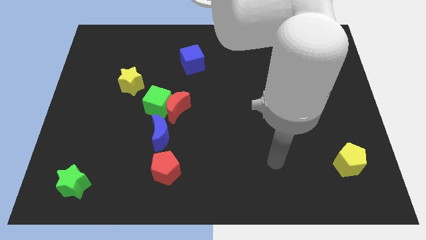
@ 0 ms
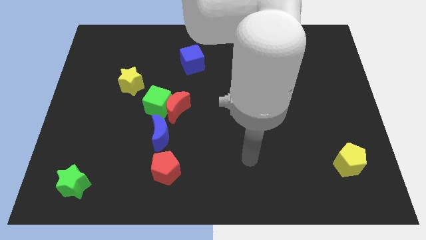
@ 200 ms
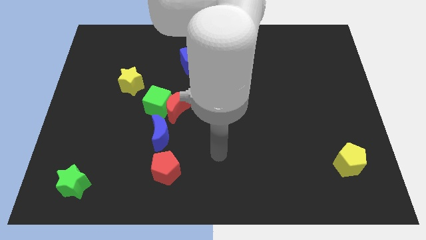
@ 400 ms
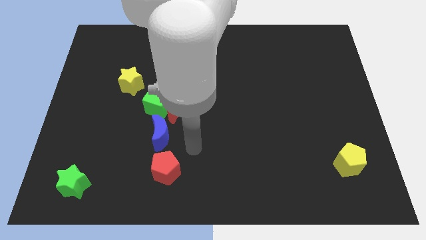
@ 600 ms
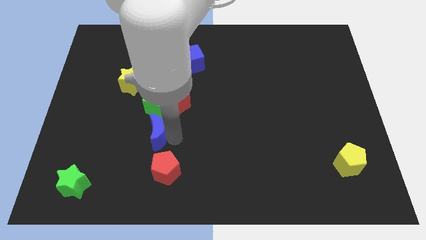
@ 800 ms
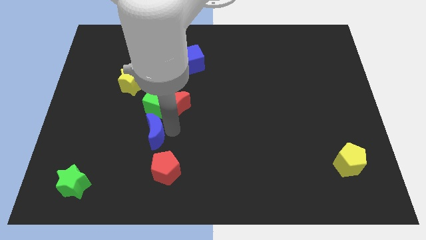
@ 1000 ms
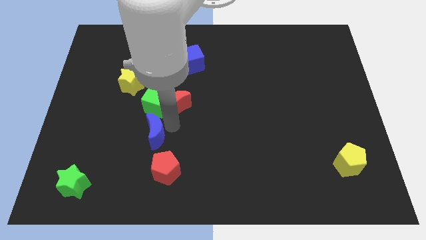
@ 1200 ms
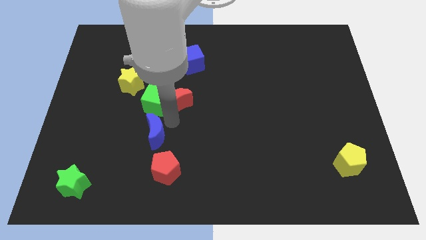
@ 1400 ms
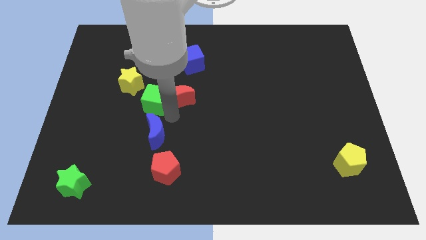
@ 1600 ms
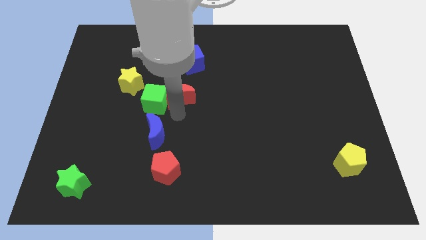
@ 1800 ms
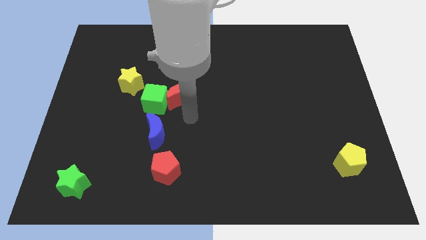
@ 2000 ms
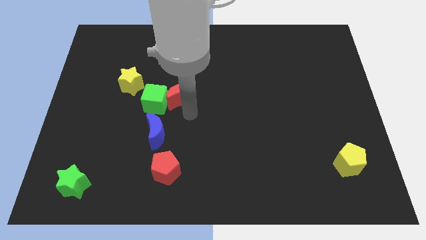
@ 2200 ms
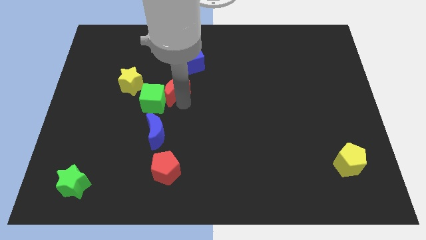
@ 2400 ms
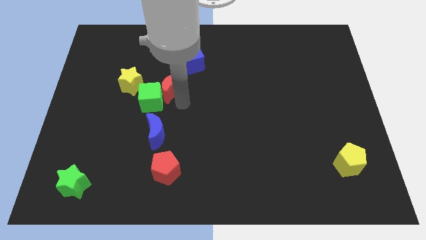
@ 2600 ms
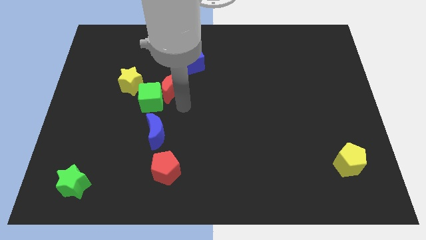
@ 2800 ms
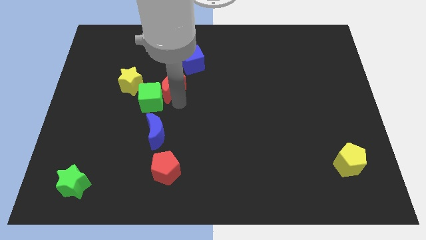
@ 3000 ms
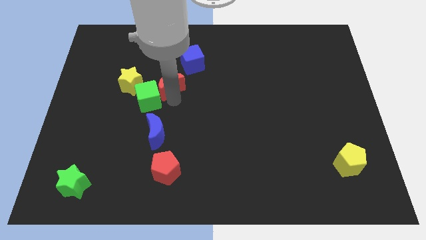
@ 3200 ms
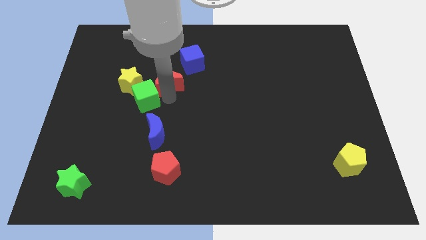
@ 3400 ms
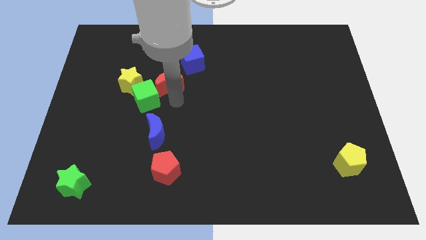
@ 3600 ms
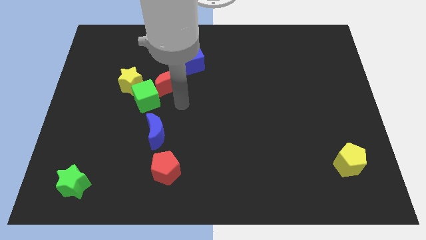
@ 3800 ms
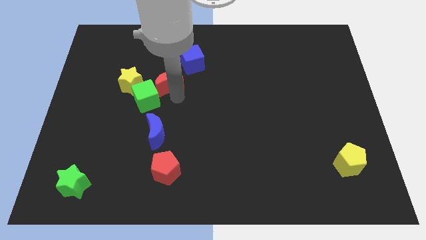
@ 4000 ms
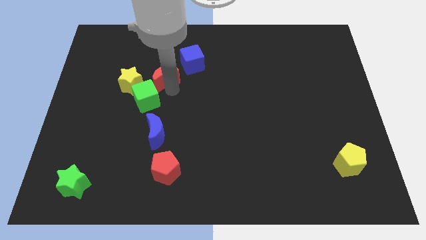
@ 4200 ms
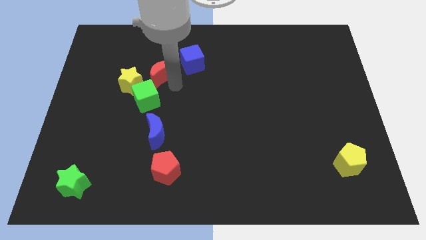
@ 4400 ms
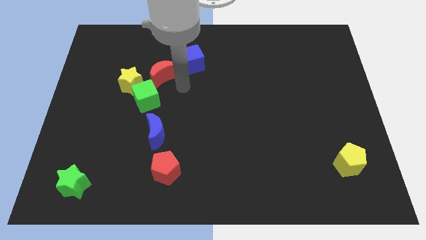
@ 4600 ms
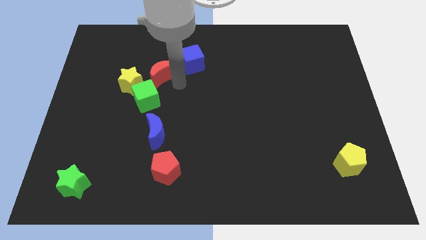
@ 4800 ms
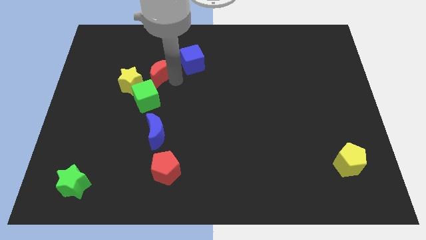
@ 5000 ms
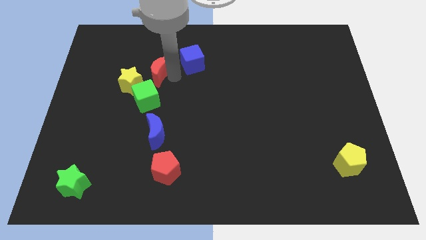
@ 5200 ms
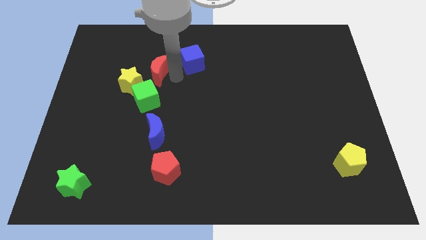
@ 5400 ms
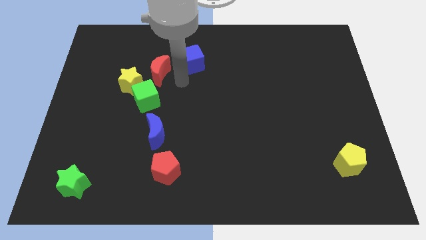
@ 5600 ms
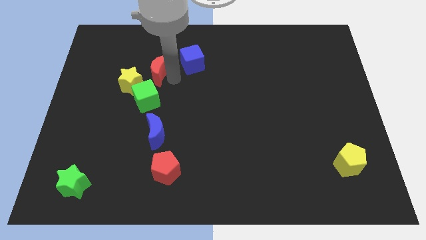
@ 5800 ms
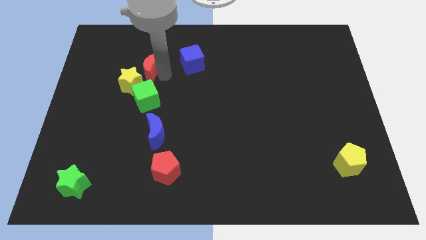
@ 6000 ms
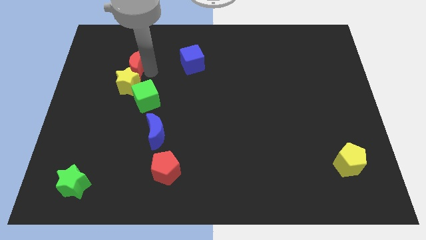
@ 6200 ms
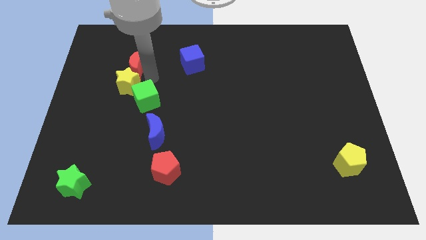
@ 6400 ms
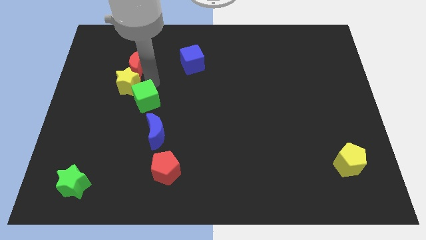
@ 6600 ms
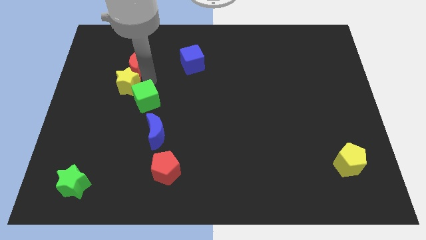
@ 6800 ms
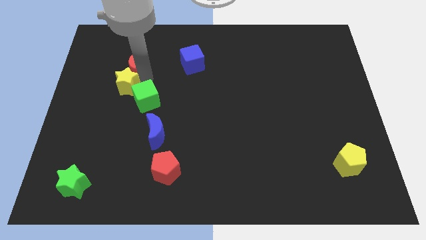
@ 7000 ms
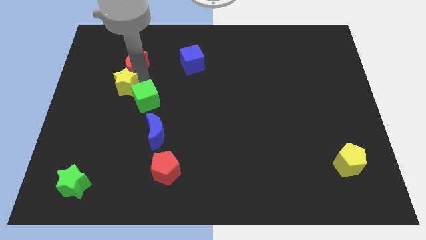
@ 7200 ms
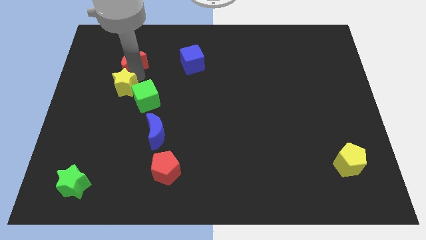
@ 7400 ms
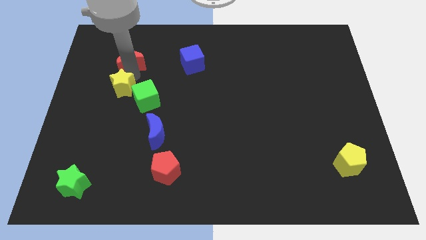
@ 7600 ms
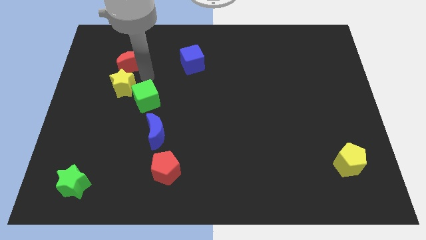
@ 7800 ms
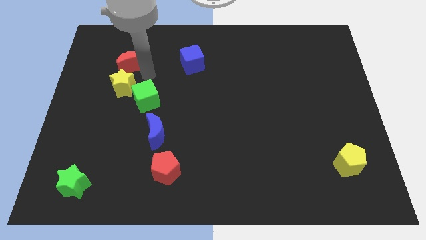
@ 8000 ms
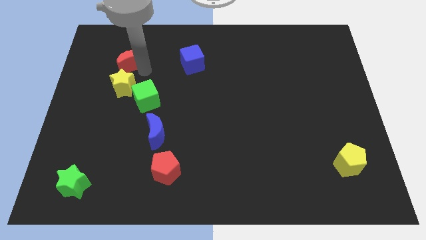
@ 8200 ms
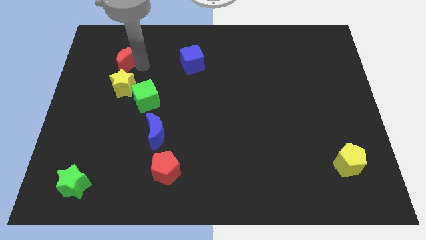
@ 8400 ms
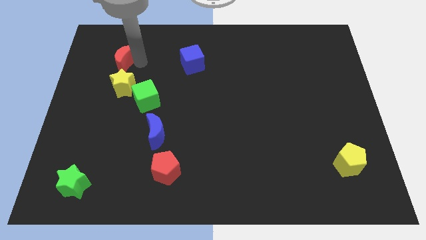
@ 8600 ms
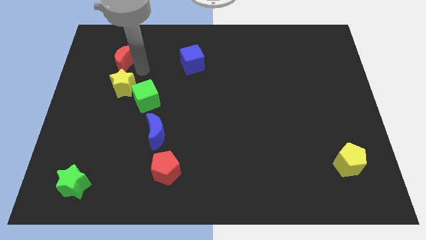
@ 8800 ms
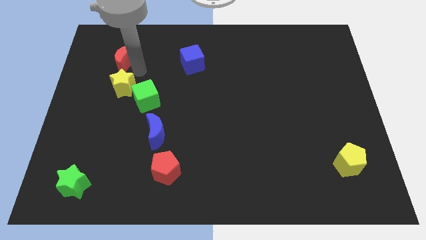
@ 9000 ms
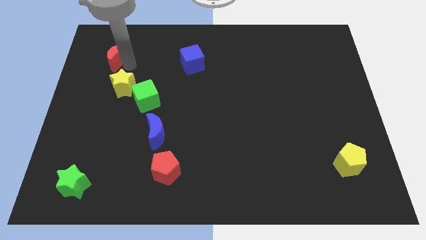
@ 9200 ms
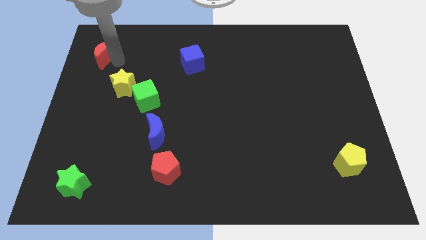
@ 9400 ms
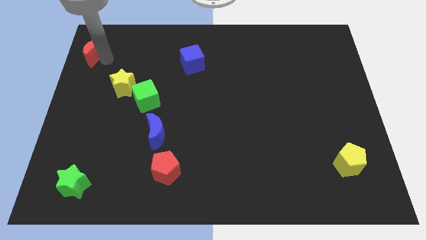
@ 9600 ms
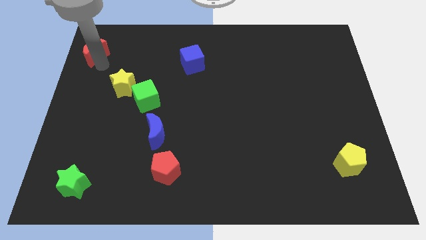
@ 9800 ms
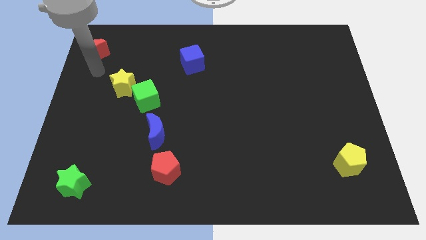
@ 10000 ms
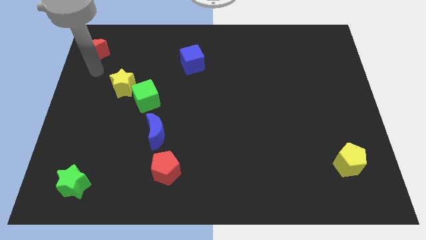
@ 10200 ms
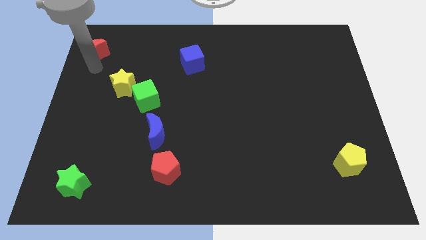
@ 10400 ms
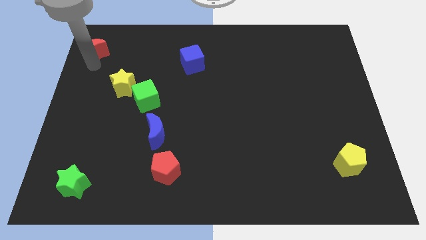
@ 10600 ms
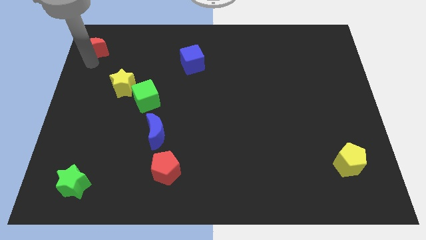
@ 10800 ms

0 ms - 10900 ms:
push the red moon to the top left

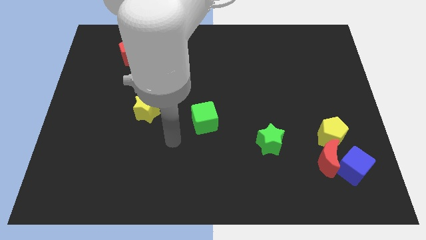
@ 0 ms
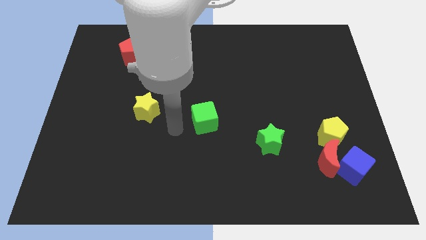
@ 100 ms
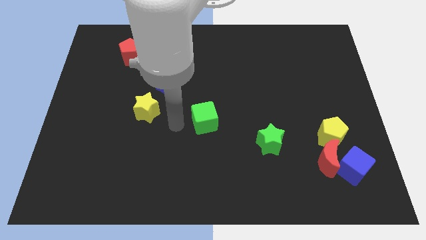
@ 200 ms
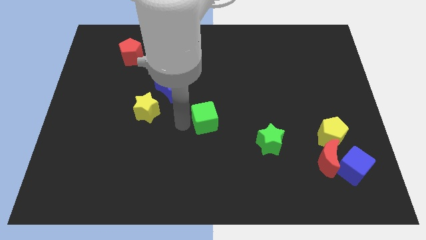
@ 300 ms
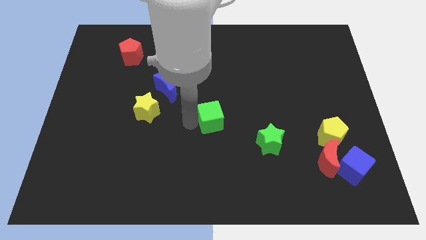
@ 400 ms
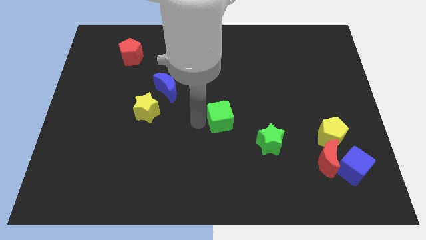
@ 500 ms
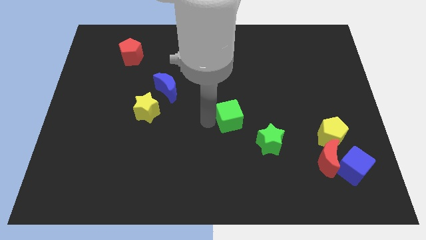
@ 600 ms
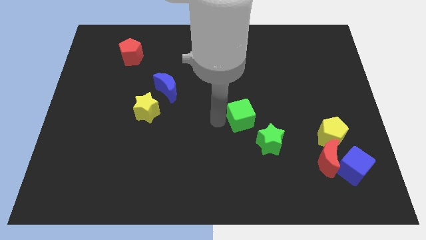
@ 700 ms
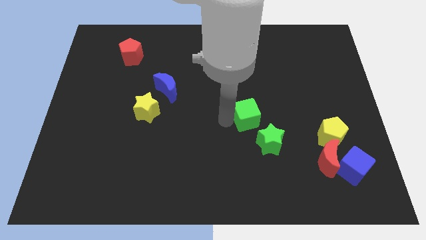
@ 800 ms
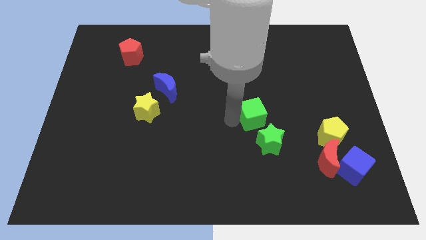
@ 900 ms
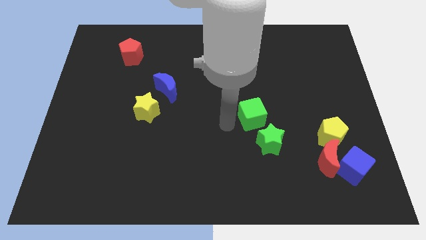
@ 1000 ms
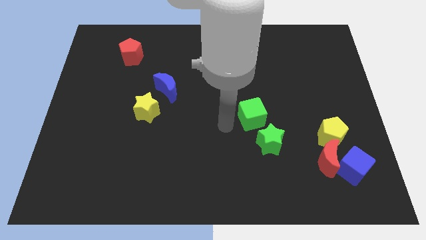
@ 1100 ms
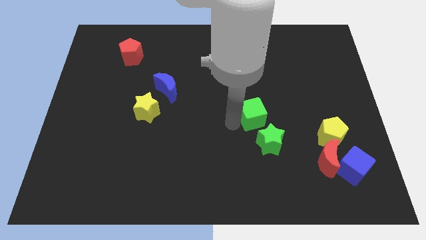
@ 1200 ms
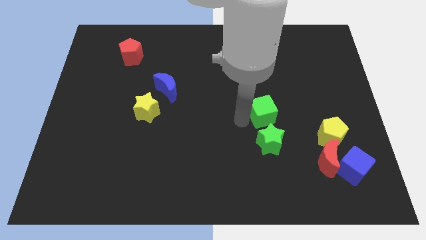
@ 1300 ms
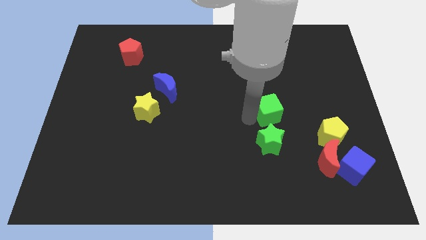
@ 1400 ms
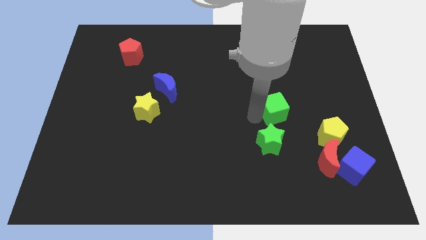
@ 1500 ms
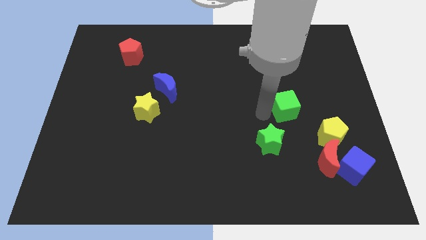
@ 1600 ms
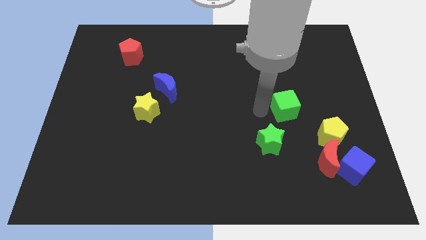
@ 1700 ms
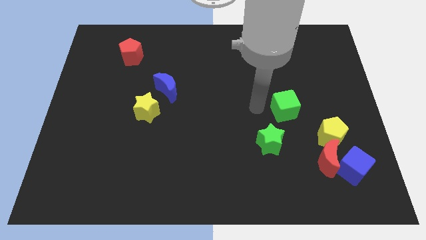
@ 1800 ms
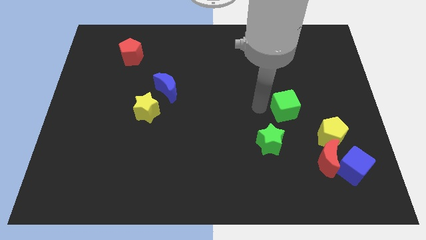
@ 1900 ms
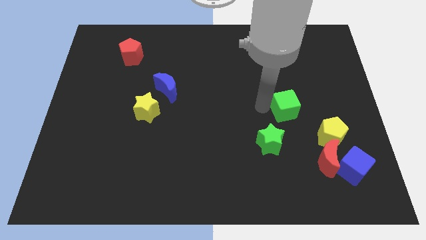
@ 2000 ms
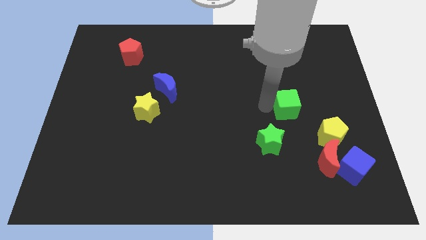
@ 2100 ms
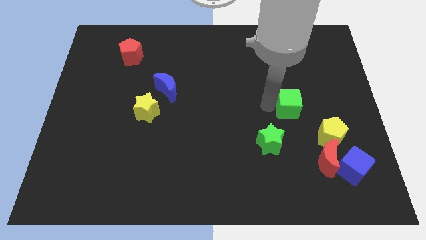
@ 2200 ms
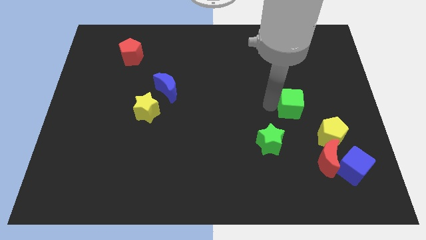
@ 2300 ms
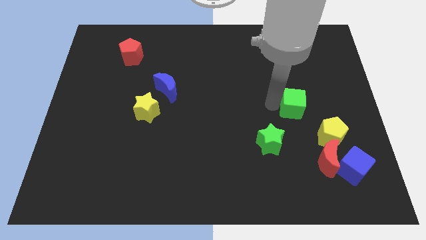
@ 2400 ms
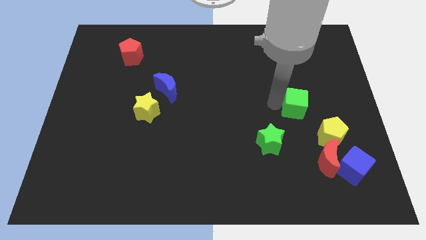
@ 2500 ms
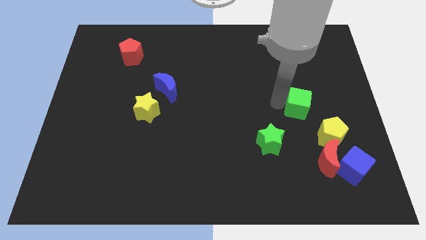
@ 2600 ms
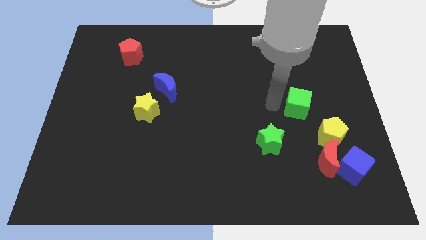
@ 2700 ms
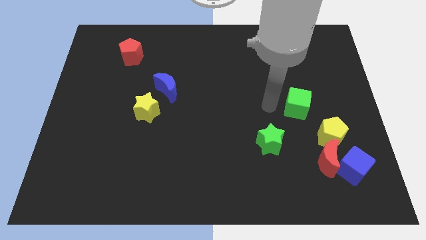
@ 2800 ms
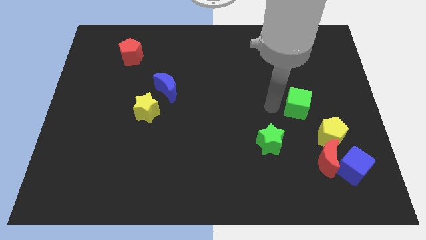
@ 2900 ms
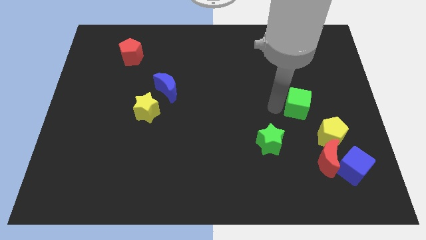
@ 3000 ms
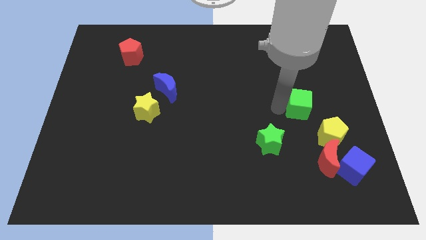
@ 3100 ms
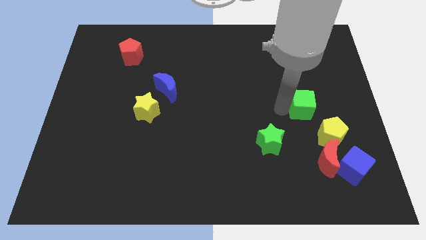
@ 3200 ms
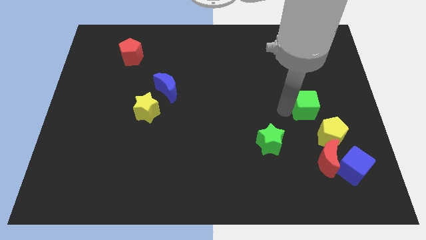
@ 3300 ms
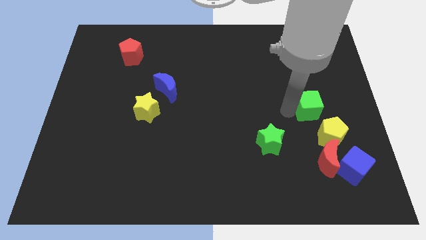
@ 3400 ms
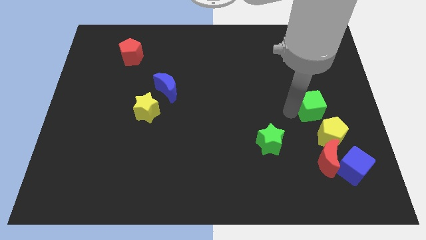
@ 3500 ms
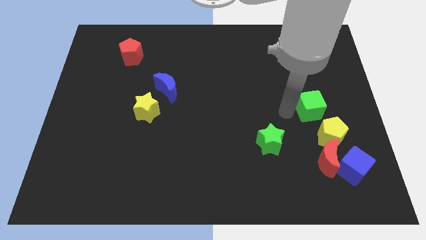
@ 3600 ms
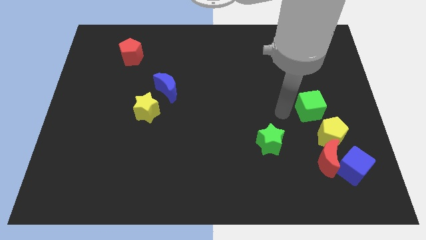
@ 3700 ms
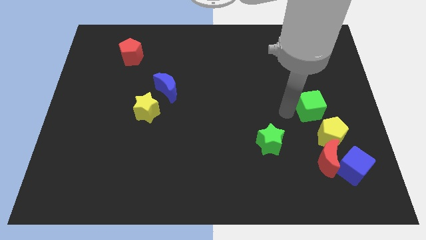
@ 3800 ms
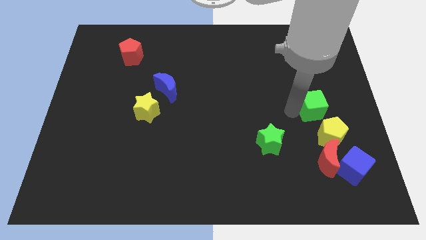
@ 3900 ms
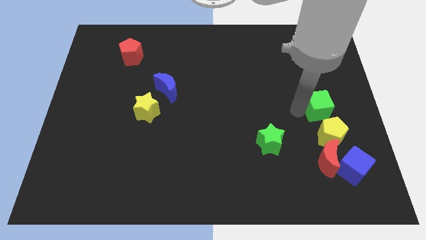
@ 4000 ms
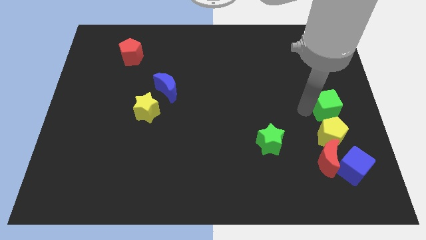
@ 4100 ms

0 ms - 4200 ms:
put the green cube to the right side
